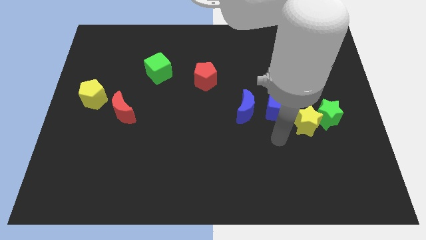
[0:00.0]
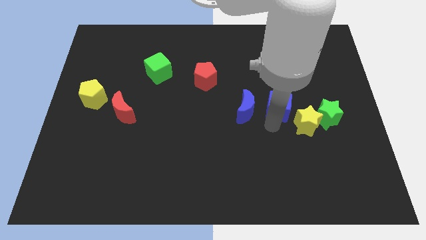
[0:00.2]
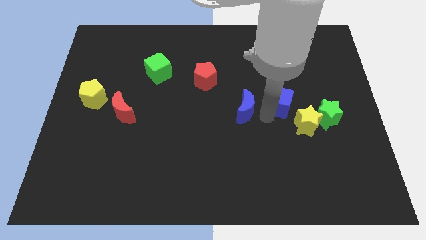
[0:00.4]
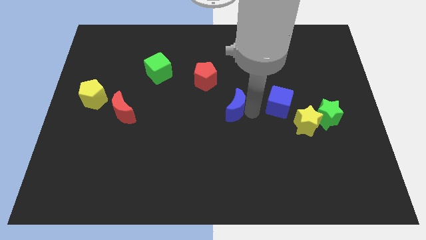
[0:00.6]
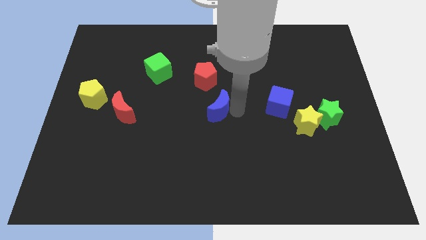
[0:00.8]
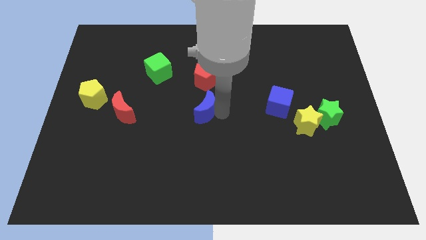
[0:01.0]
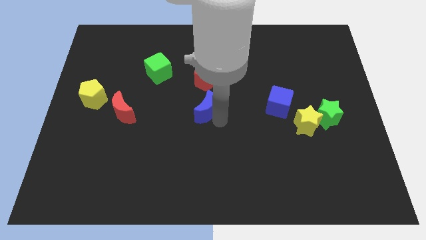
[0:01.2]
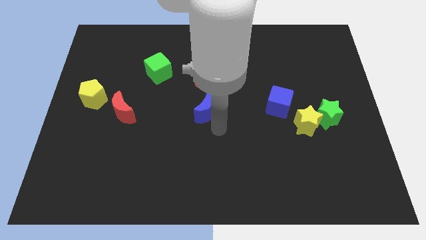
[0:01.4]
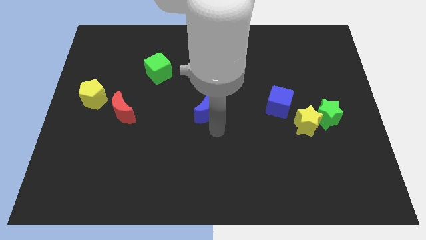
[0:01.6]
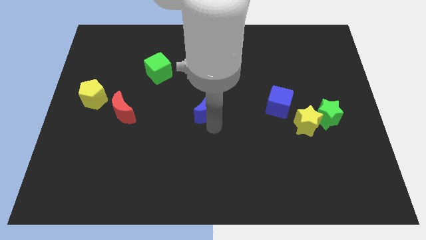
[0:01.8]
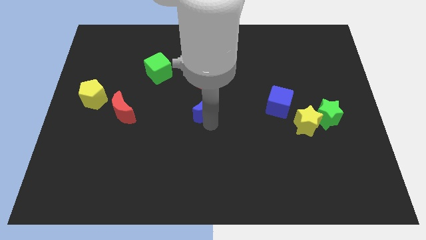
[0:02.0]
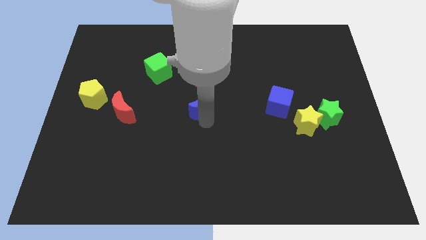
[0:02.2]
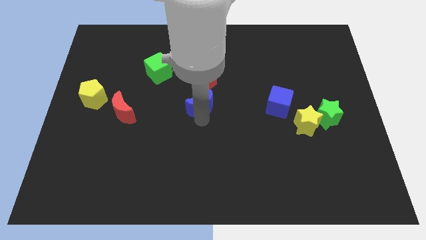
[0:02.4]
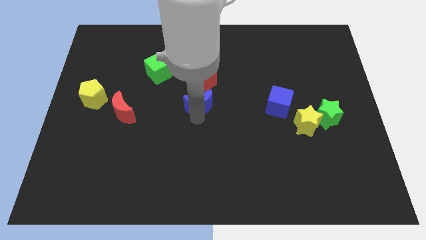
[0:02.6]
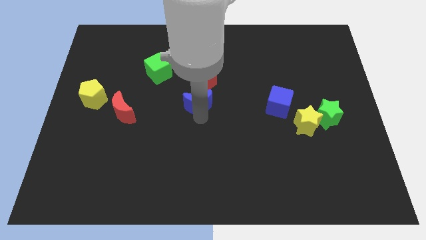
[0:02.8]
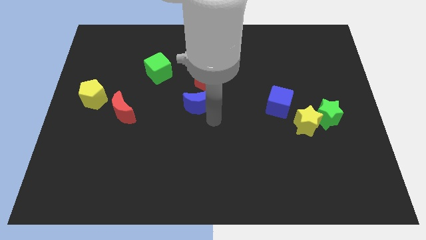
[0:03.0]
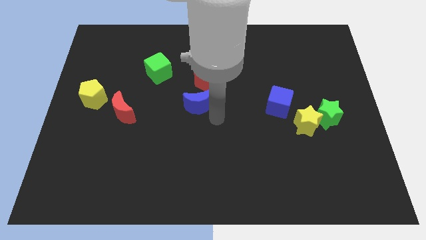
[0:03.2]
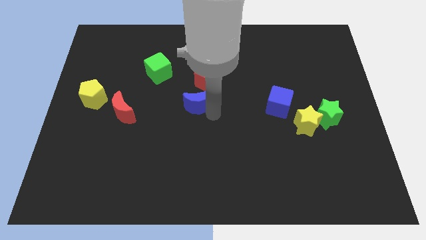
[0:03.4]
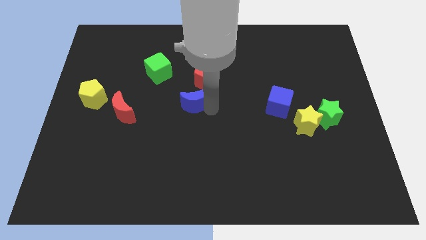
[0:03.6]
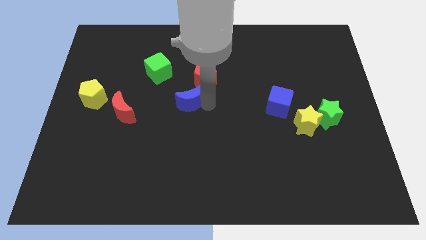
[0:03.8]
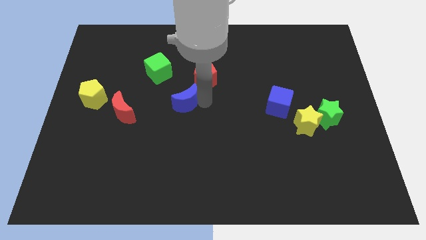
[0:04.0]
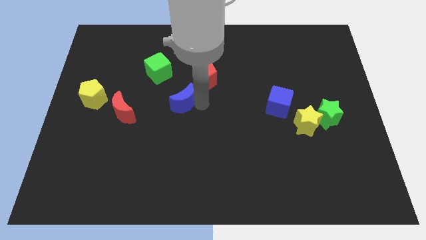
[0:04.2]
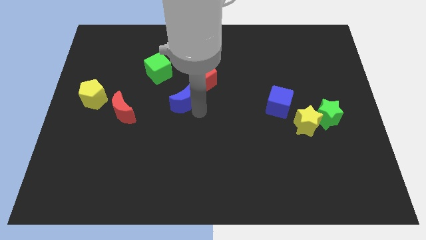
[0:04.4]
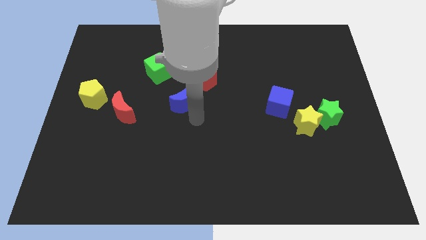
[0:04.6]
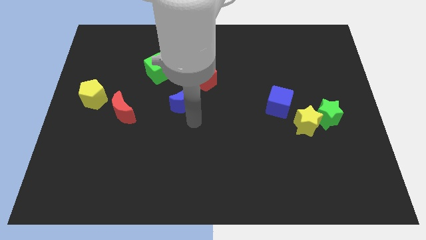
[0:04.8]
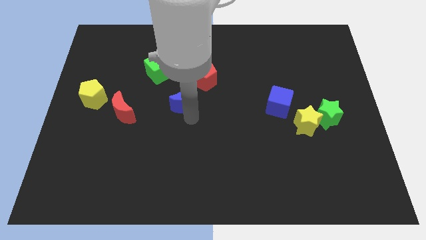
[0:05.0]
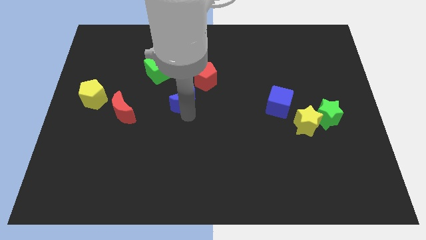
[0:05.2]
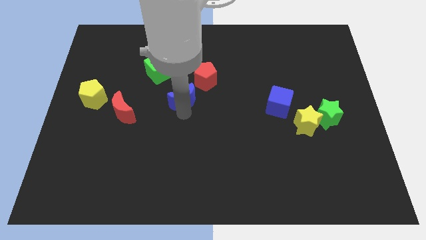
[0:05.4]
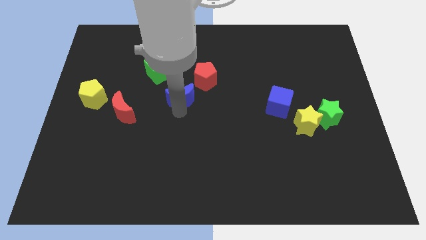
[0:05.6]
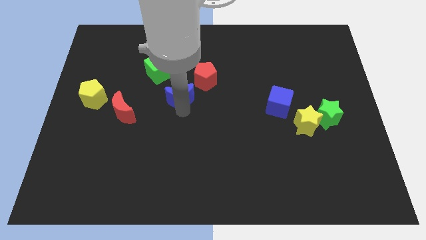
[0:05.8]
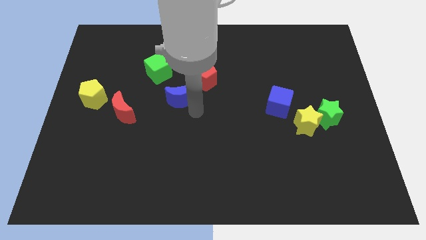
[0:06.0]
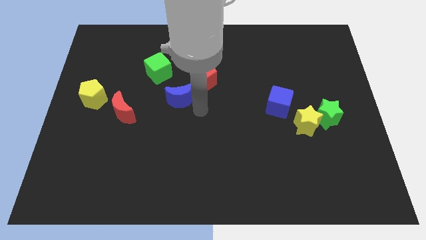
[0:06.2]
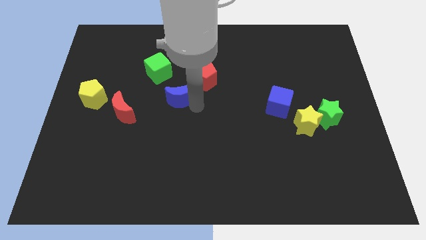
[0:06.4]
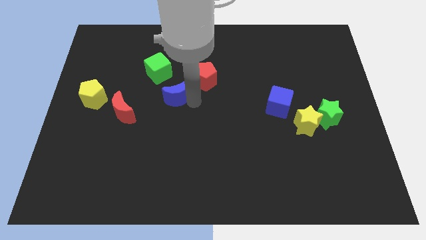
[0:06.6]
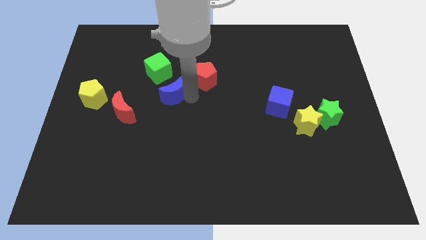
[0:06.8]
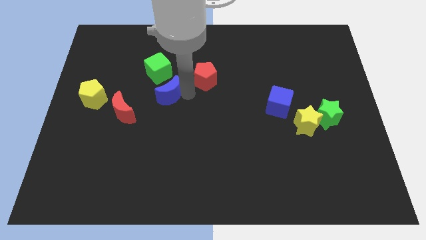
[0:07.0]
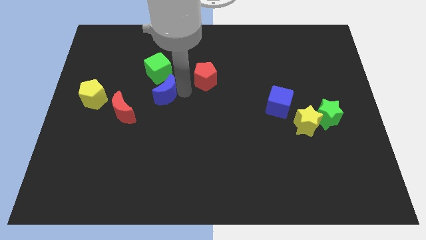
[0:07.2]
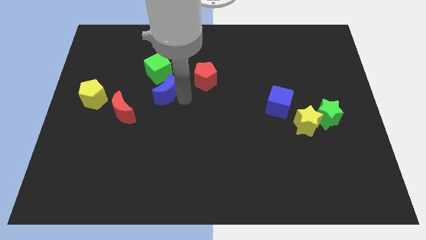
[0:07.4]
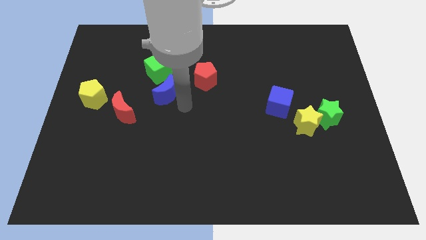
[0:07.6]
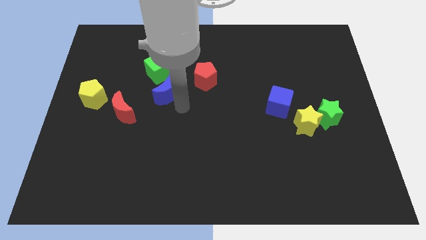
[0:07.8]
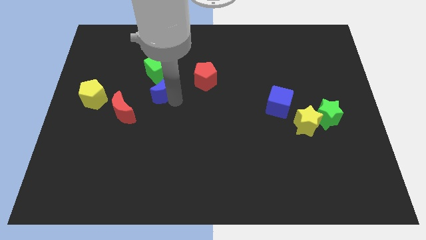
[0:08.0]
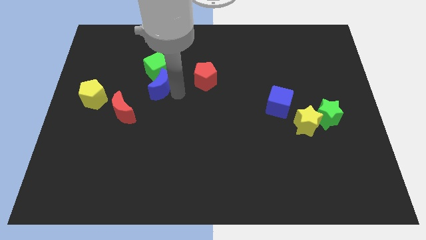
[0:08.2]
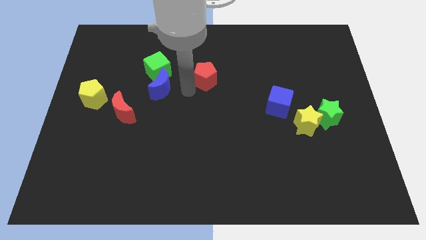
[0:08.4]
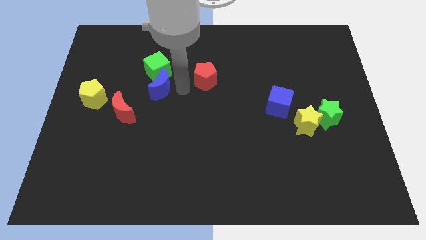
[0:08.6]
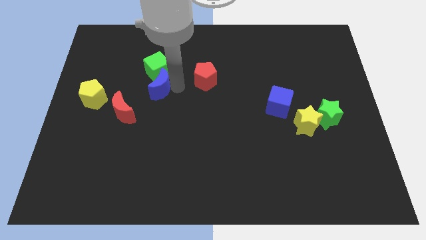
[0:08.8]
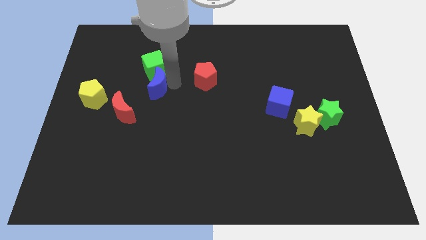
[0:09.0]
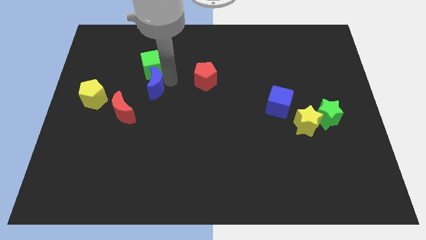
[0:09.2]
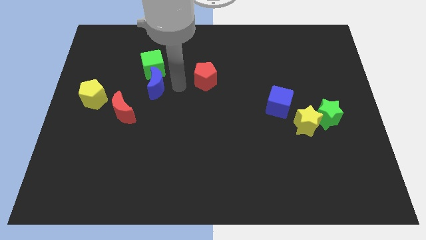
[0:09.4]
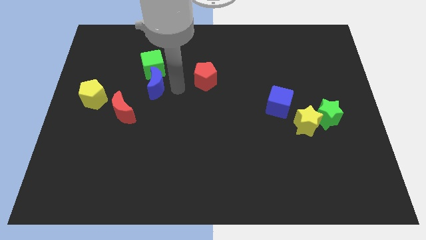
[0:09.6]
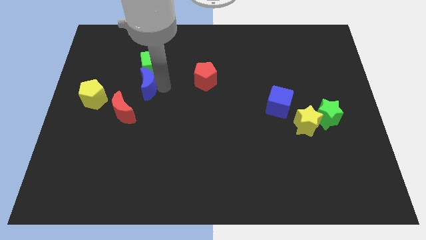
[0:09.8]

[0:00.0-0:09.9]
slide the blue moon to the bottom left side of the green cube

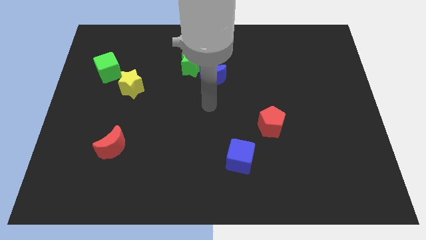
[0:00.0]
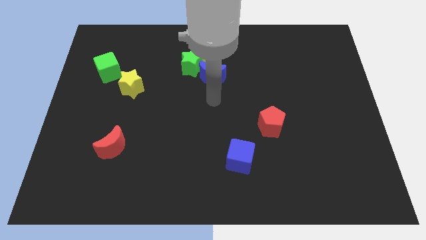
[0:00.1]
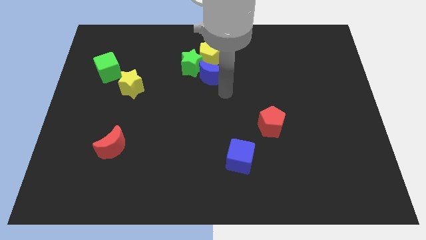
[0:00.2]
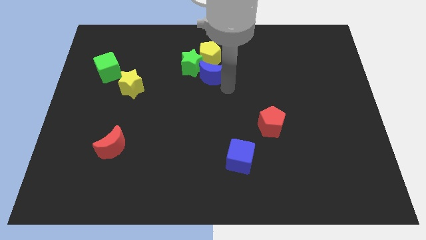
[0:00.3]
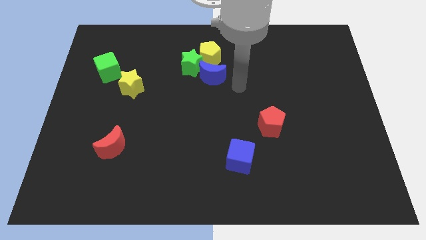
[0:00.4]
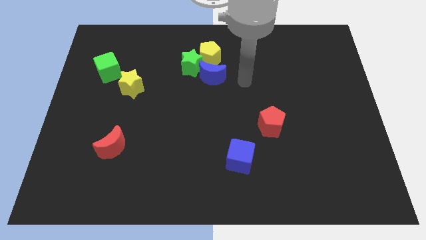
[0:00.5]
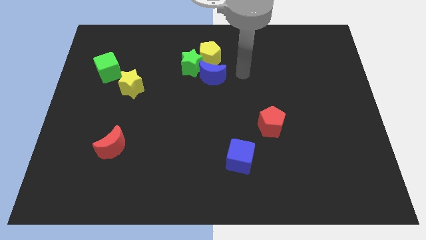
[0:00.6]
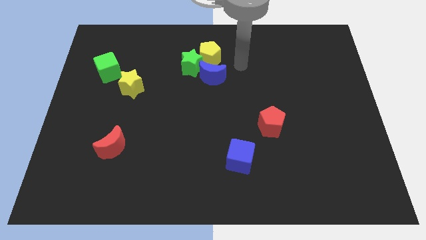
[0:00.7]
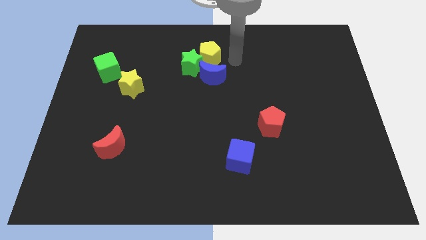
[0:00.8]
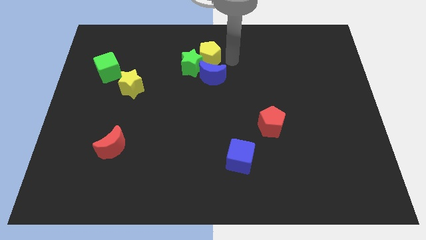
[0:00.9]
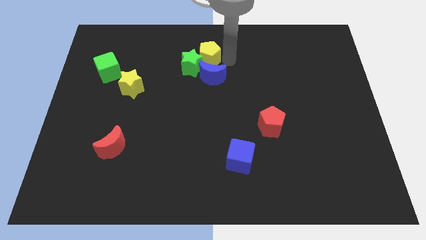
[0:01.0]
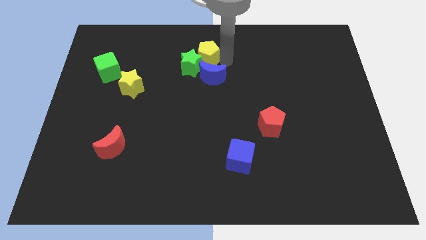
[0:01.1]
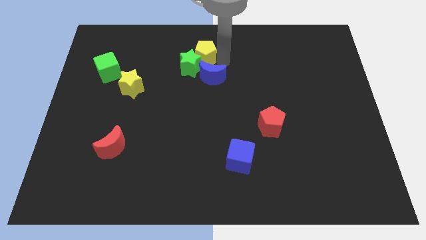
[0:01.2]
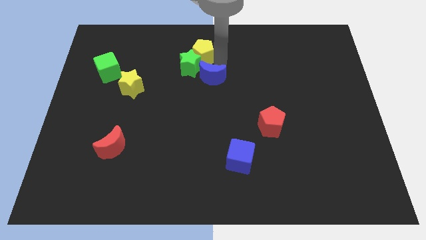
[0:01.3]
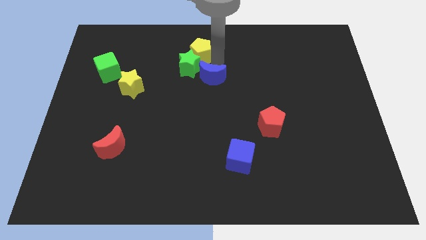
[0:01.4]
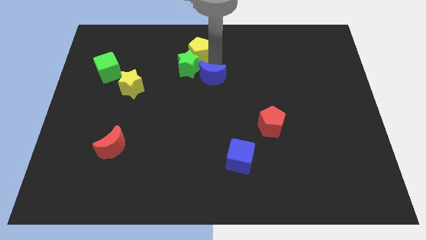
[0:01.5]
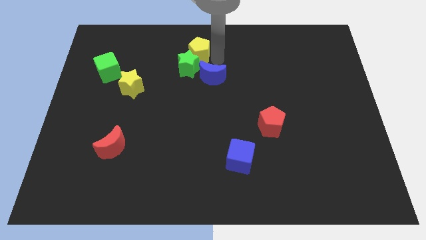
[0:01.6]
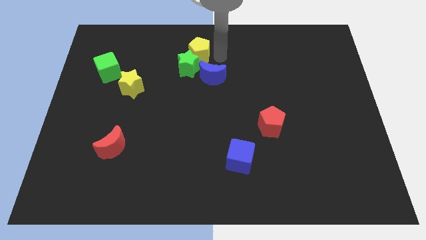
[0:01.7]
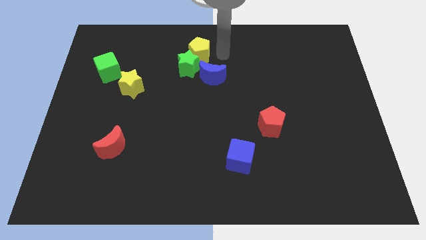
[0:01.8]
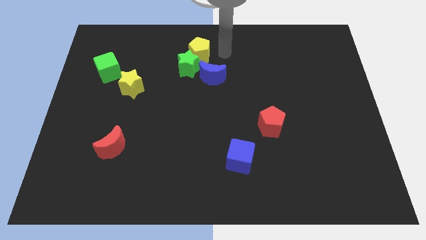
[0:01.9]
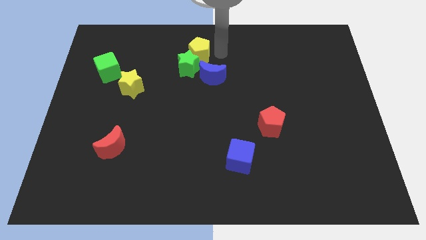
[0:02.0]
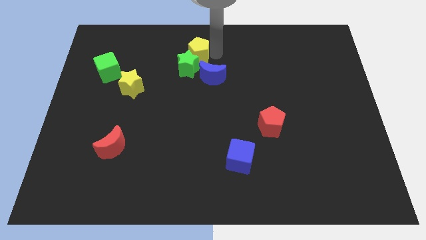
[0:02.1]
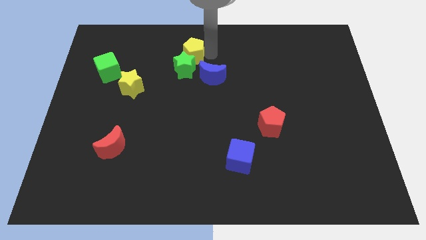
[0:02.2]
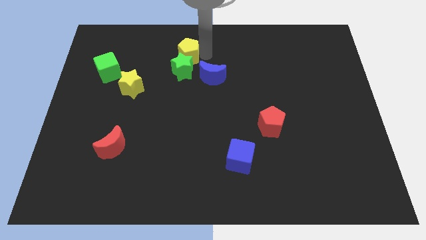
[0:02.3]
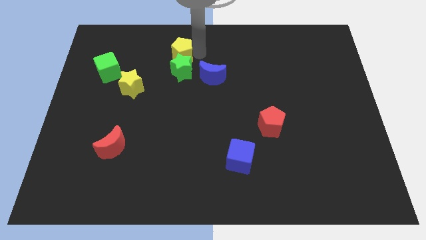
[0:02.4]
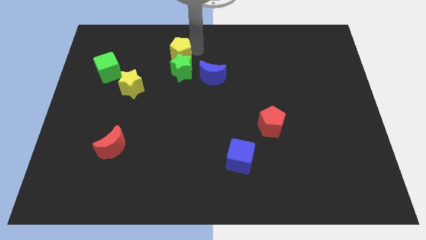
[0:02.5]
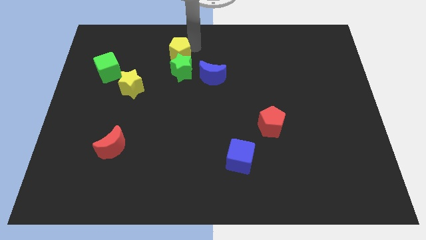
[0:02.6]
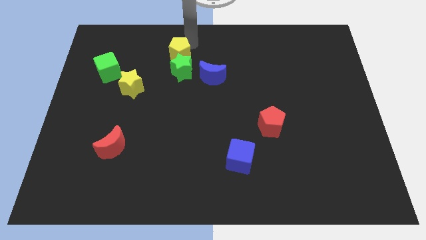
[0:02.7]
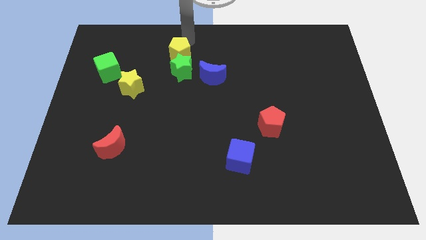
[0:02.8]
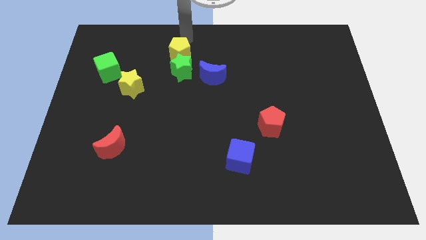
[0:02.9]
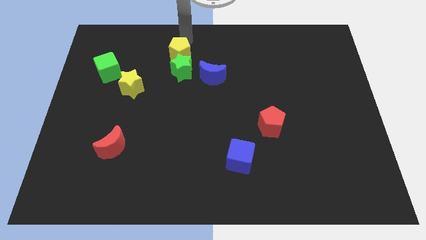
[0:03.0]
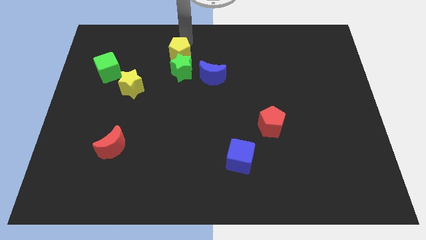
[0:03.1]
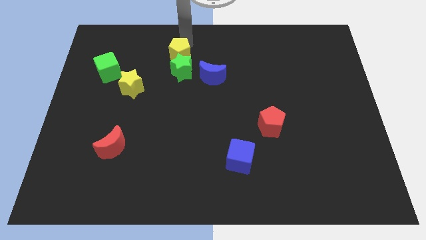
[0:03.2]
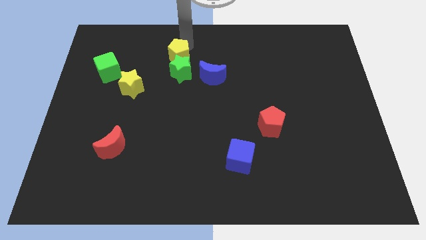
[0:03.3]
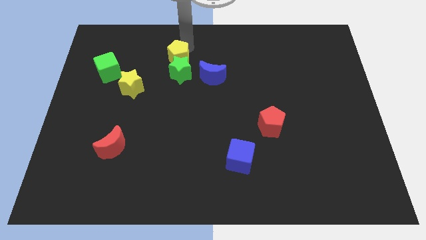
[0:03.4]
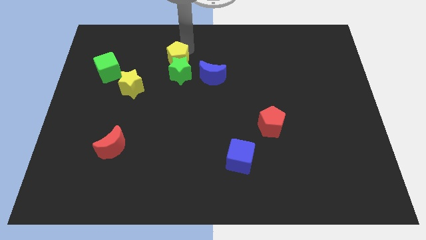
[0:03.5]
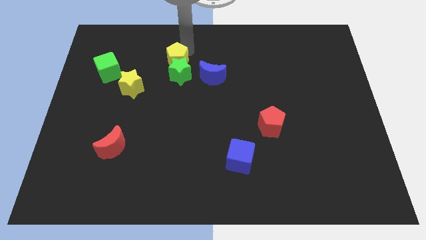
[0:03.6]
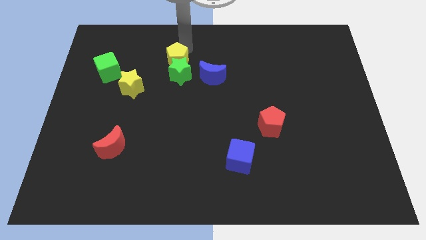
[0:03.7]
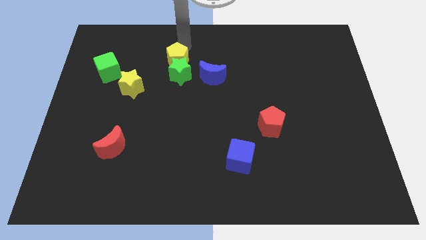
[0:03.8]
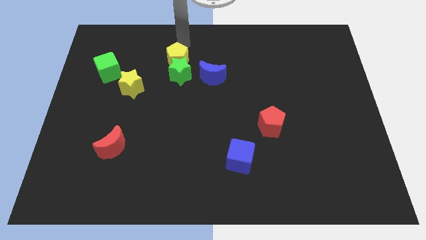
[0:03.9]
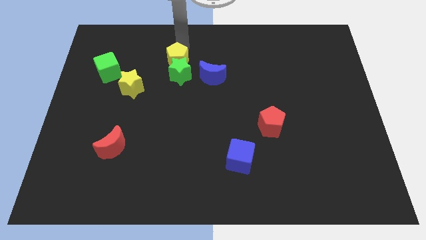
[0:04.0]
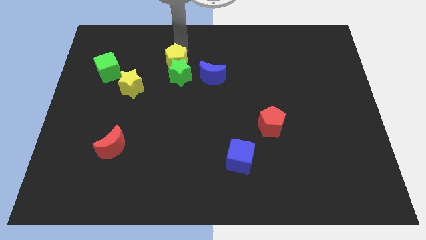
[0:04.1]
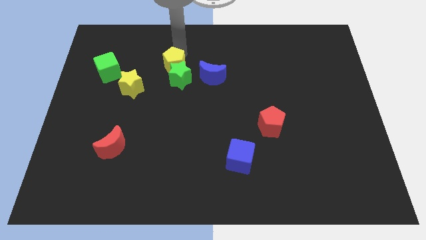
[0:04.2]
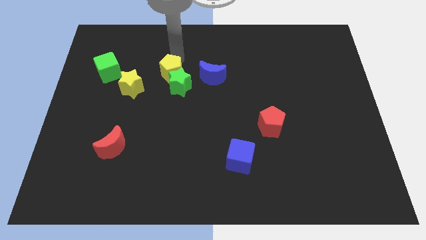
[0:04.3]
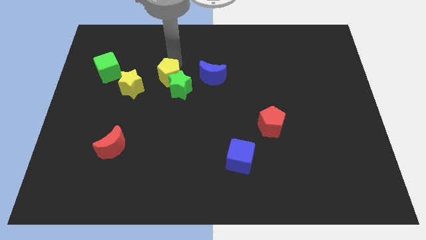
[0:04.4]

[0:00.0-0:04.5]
move the yellow pentagon just right of the yellow star
